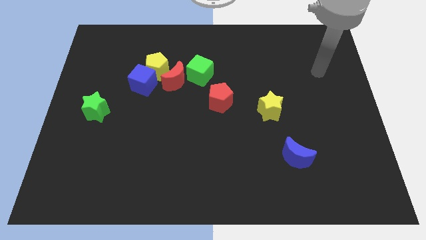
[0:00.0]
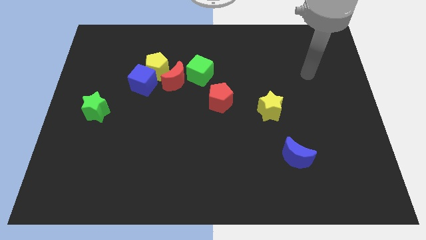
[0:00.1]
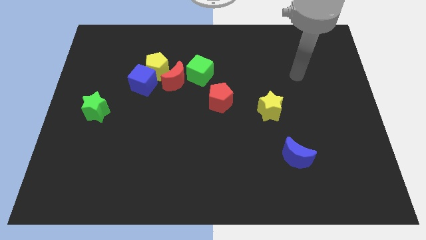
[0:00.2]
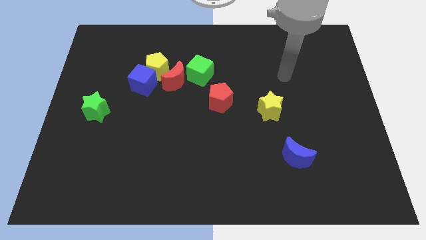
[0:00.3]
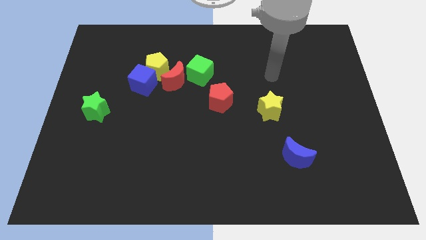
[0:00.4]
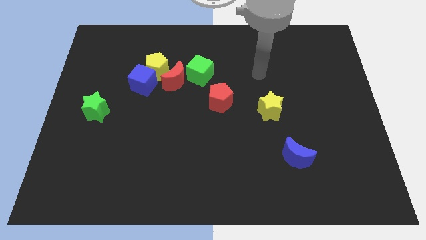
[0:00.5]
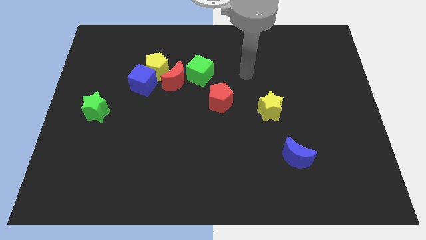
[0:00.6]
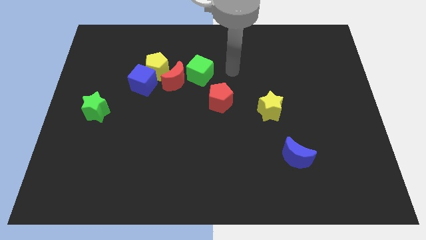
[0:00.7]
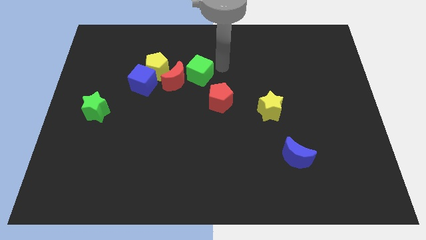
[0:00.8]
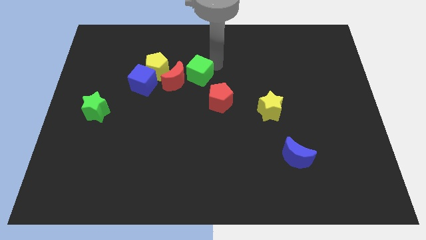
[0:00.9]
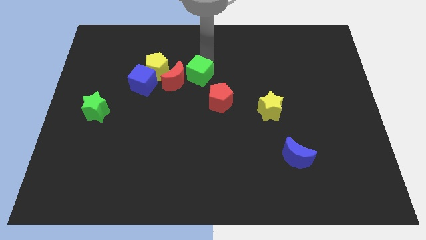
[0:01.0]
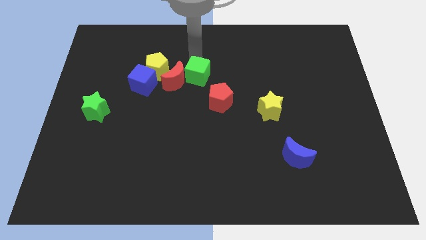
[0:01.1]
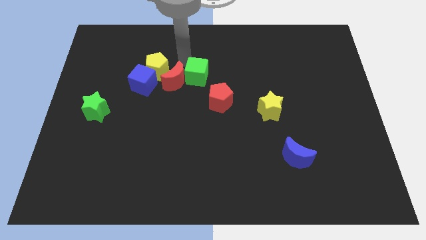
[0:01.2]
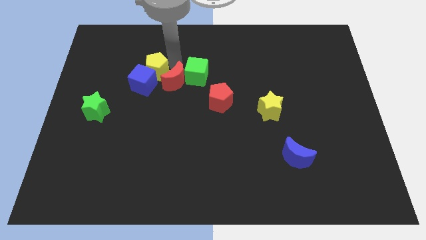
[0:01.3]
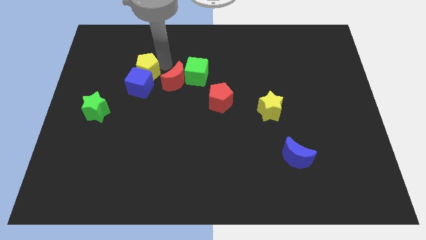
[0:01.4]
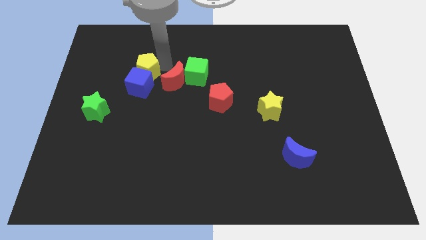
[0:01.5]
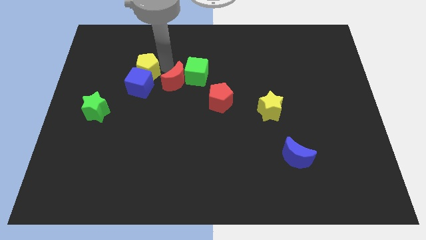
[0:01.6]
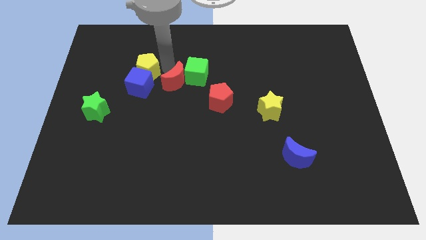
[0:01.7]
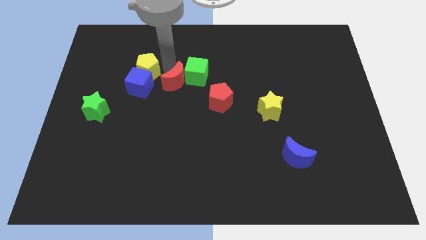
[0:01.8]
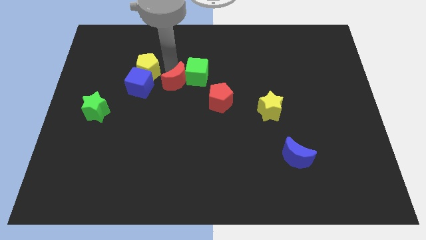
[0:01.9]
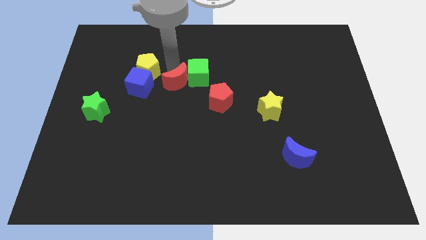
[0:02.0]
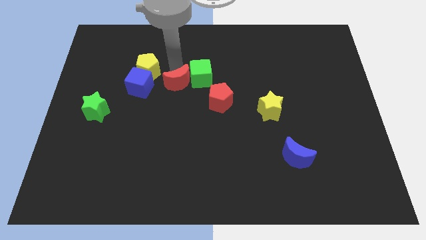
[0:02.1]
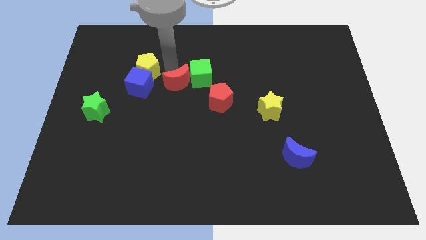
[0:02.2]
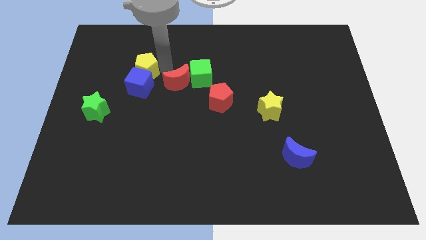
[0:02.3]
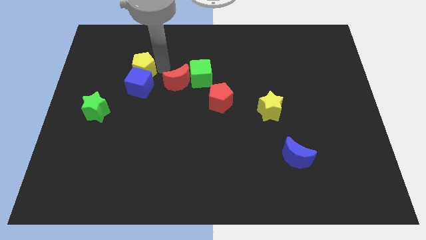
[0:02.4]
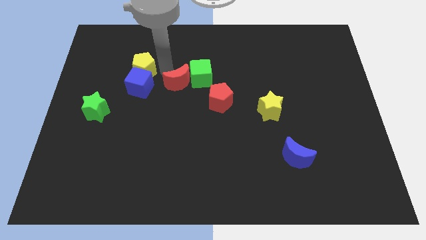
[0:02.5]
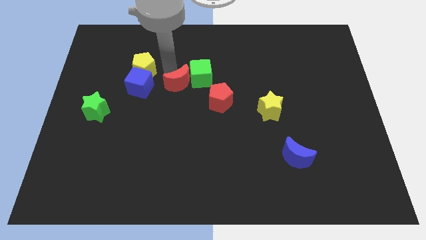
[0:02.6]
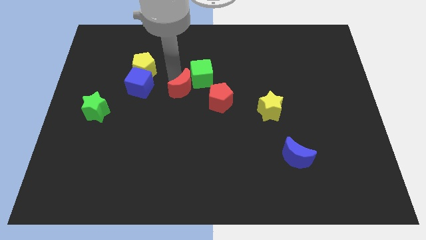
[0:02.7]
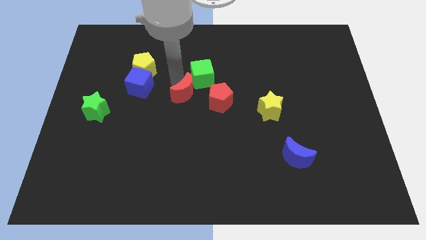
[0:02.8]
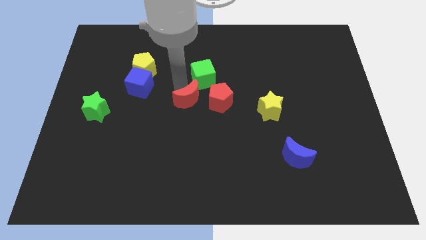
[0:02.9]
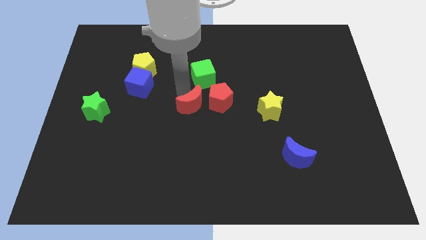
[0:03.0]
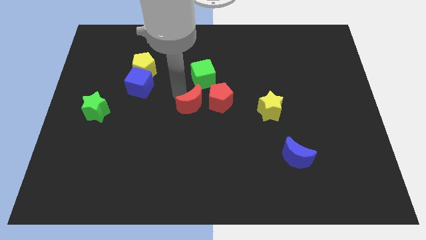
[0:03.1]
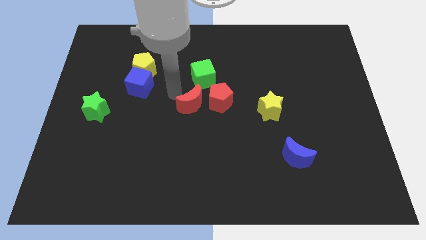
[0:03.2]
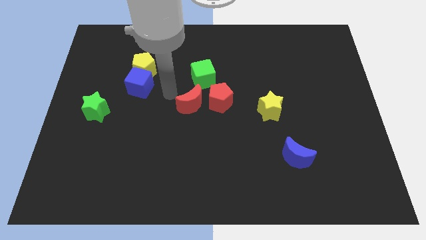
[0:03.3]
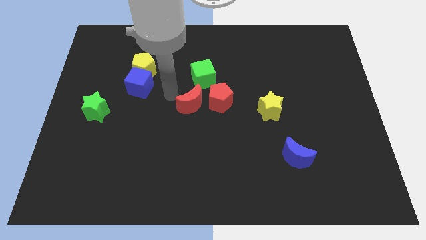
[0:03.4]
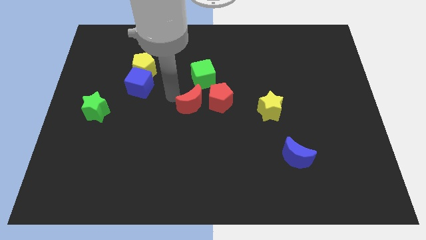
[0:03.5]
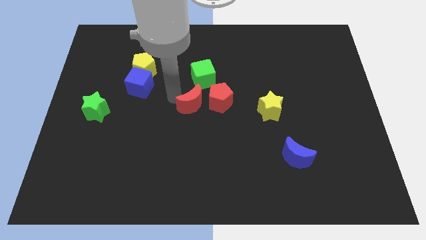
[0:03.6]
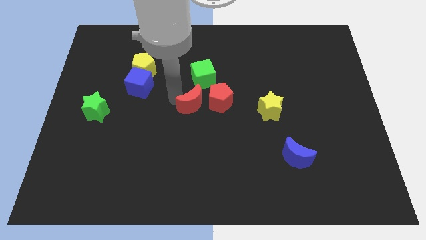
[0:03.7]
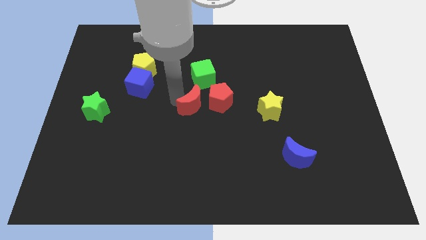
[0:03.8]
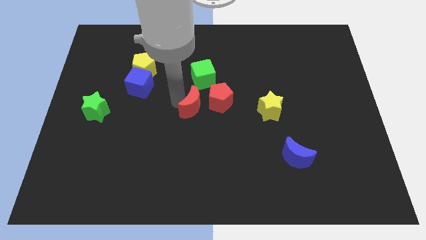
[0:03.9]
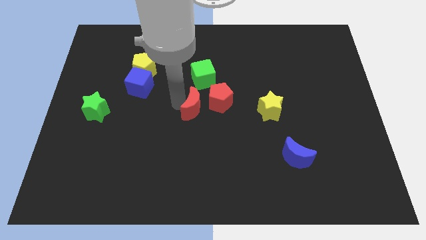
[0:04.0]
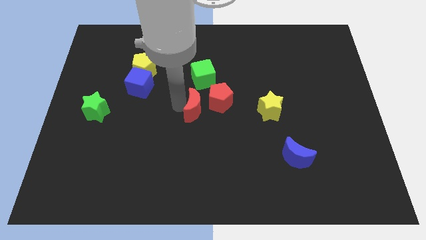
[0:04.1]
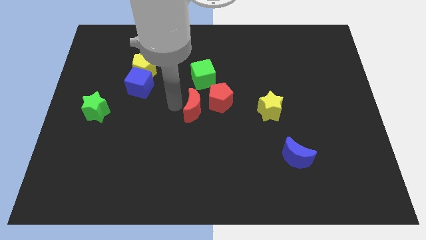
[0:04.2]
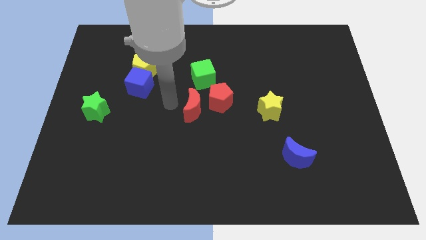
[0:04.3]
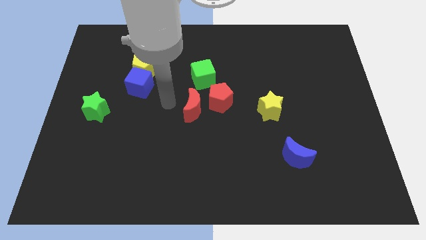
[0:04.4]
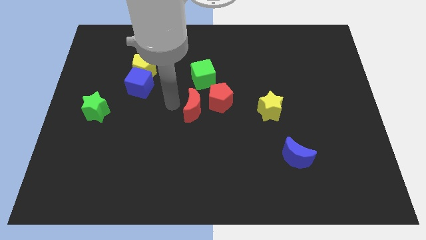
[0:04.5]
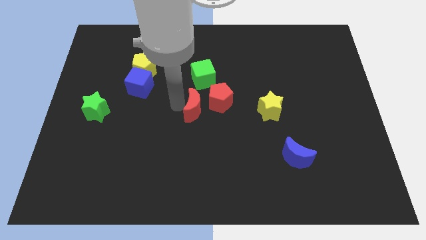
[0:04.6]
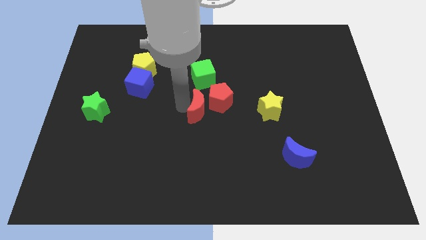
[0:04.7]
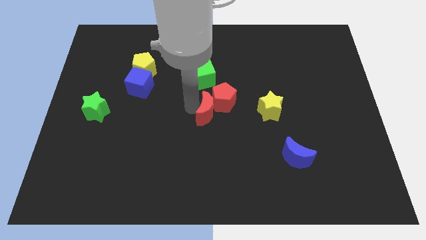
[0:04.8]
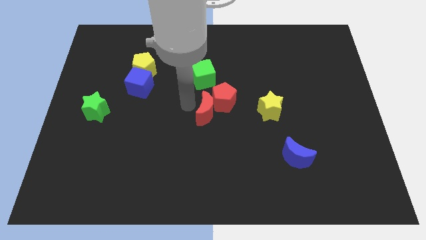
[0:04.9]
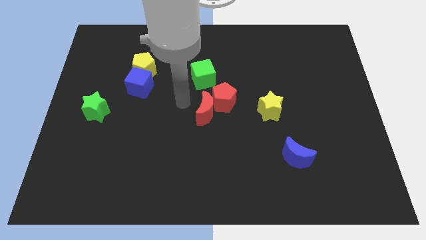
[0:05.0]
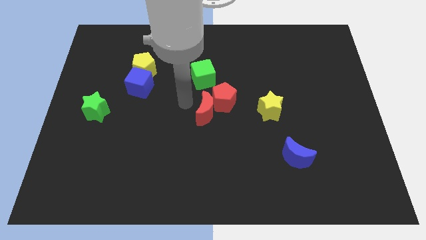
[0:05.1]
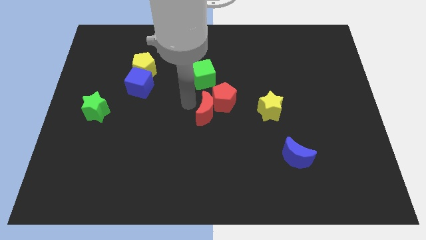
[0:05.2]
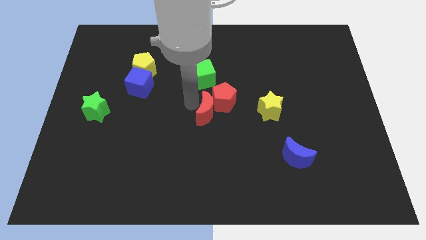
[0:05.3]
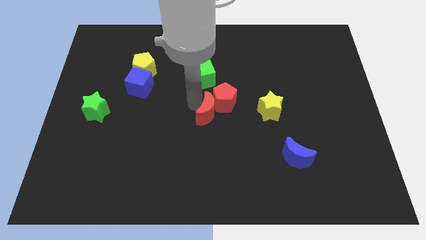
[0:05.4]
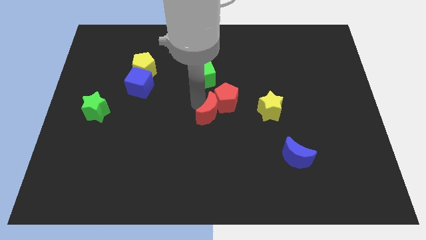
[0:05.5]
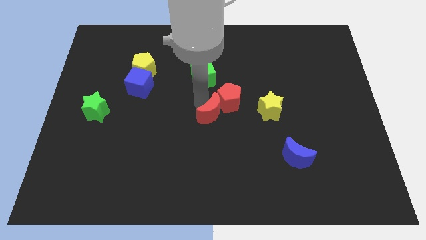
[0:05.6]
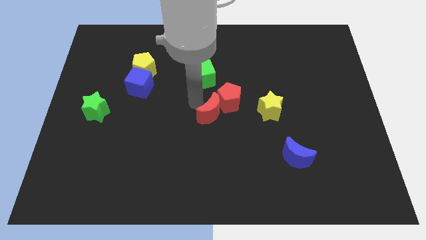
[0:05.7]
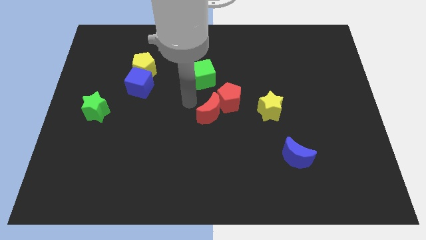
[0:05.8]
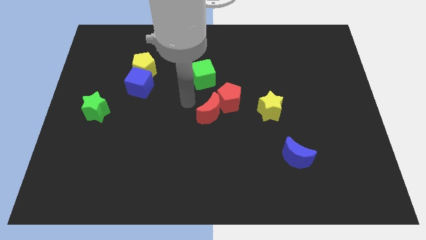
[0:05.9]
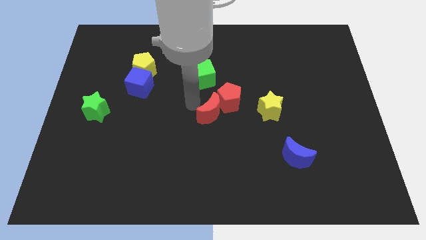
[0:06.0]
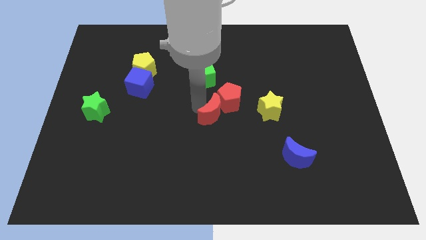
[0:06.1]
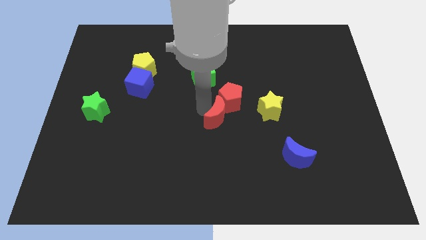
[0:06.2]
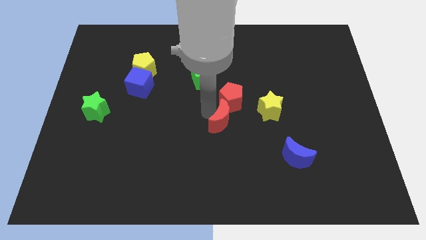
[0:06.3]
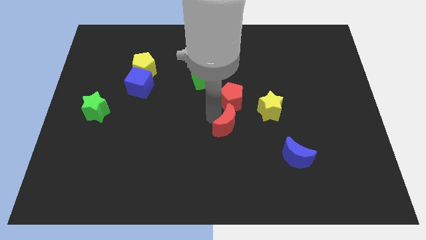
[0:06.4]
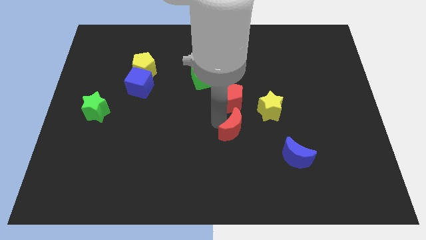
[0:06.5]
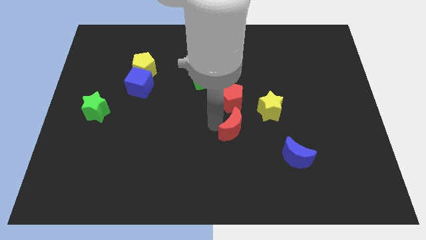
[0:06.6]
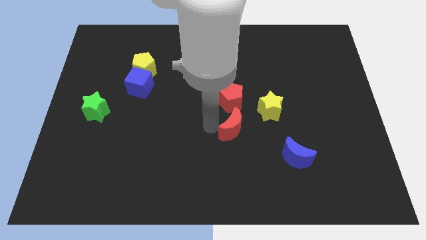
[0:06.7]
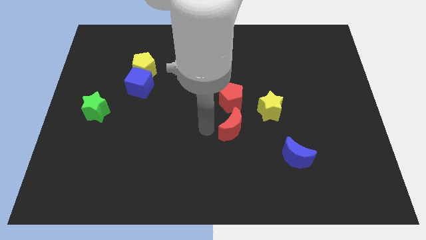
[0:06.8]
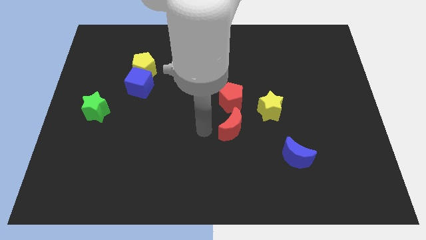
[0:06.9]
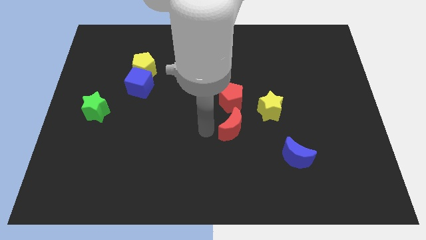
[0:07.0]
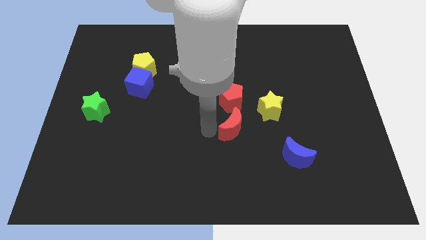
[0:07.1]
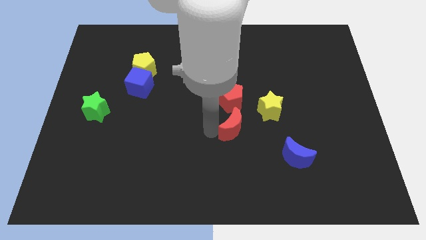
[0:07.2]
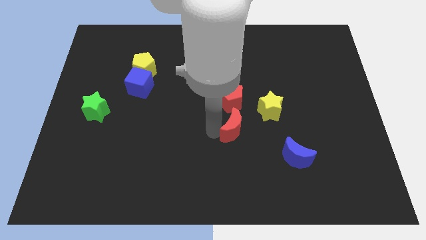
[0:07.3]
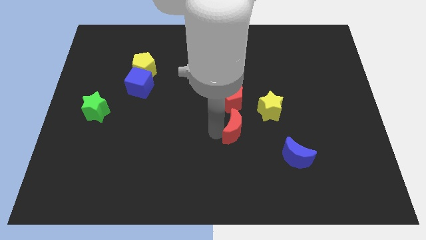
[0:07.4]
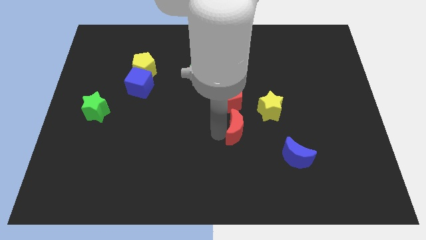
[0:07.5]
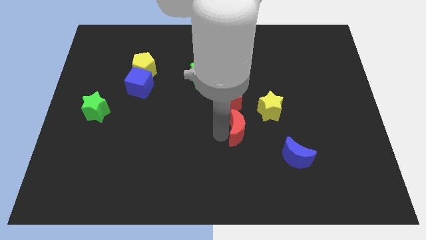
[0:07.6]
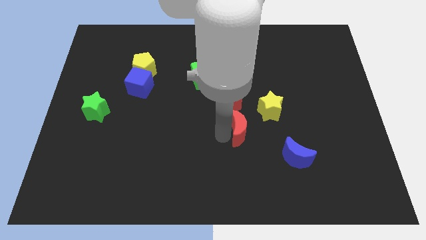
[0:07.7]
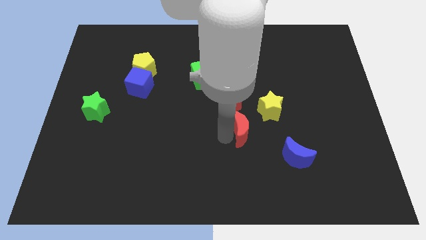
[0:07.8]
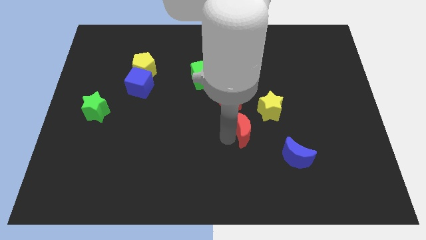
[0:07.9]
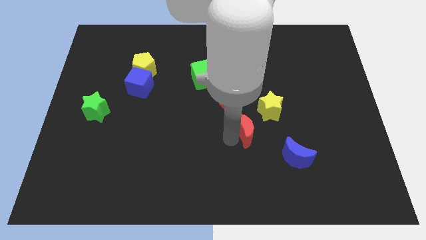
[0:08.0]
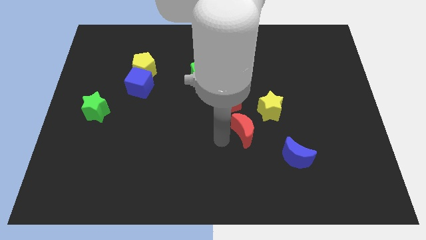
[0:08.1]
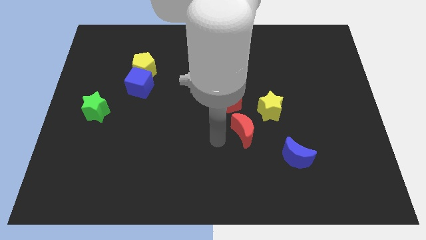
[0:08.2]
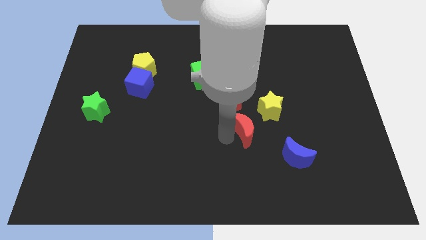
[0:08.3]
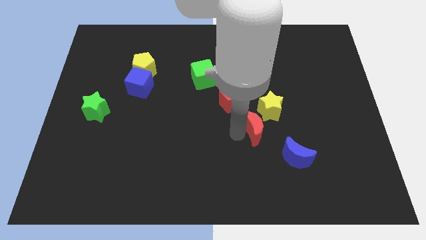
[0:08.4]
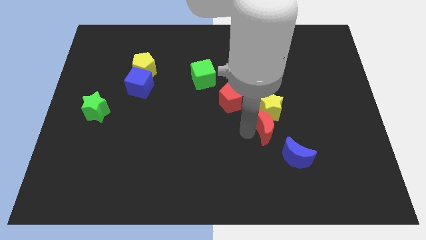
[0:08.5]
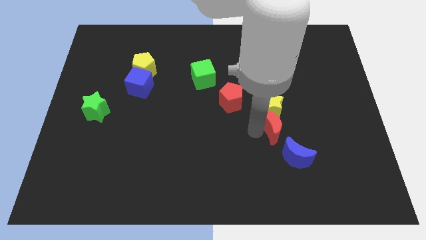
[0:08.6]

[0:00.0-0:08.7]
push the red moon to the top of the blue moon
